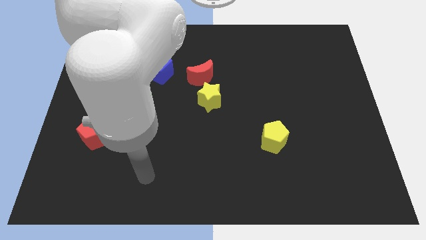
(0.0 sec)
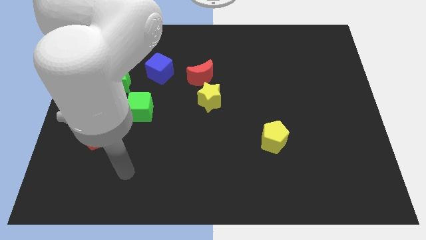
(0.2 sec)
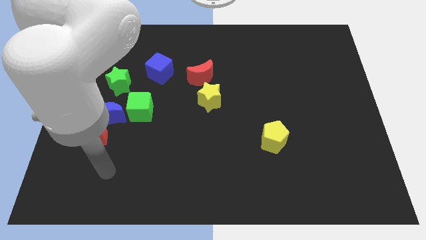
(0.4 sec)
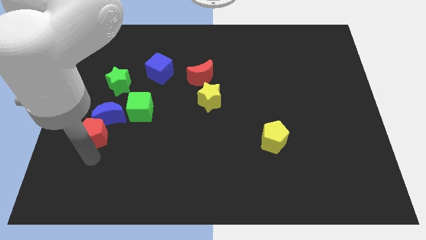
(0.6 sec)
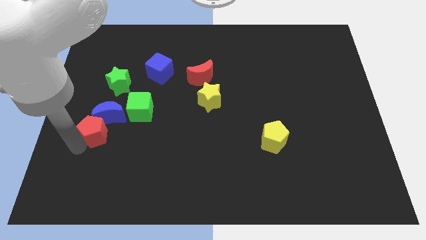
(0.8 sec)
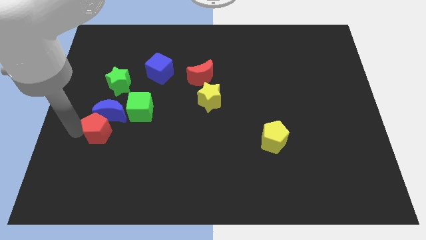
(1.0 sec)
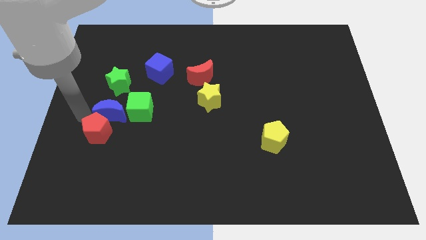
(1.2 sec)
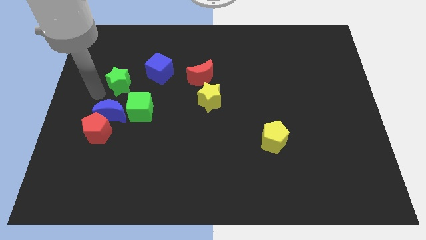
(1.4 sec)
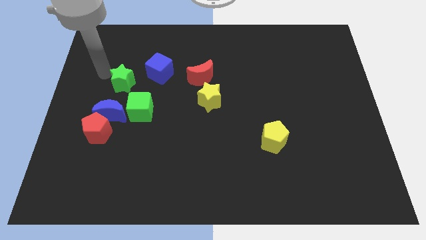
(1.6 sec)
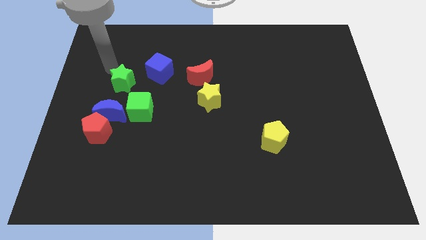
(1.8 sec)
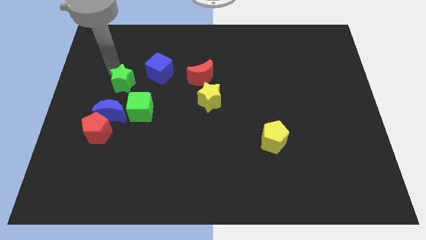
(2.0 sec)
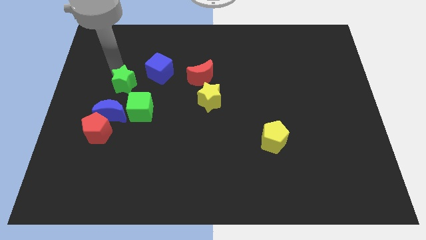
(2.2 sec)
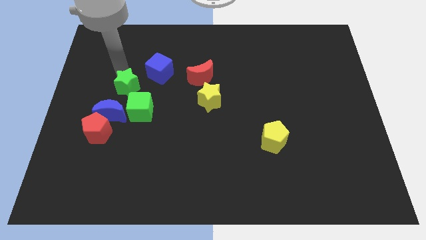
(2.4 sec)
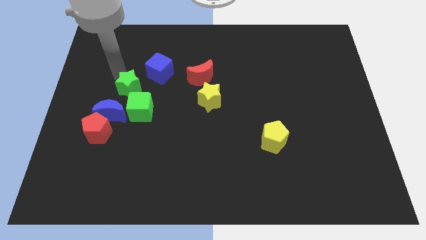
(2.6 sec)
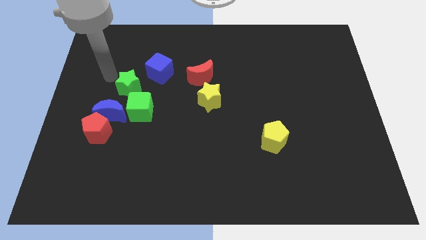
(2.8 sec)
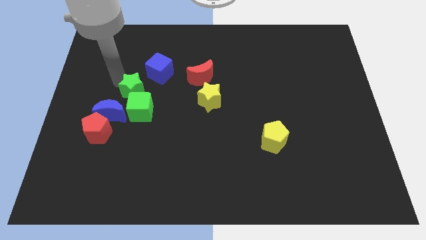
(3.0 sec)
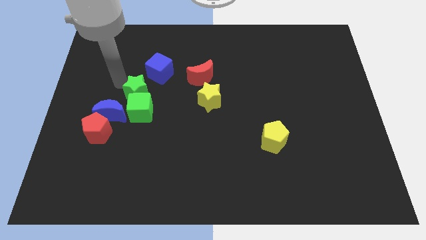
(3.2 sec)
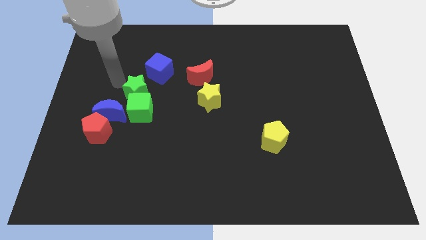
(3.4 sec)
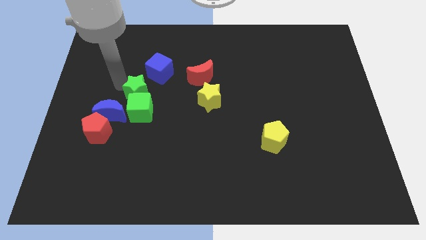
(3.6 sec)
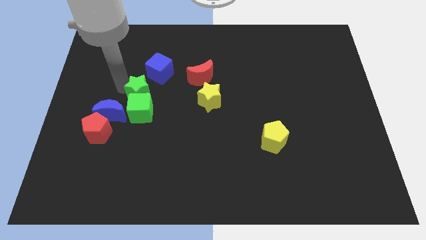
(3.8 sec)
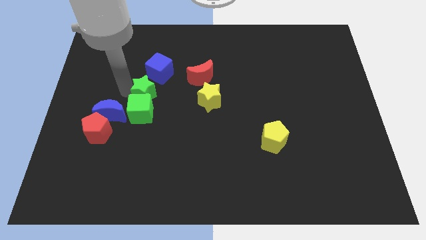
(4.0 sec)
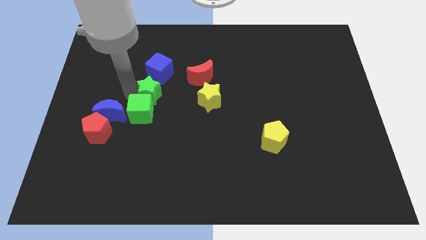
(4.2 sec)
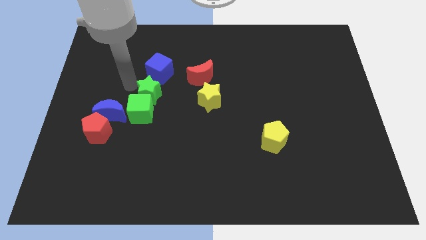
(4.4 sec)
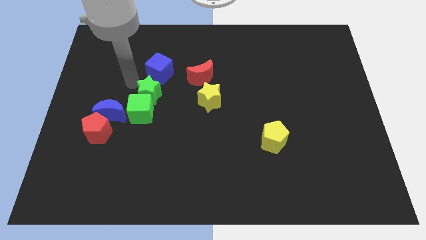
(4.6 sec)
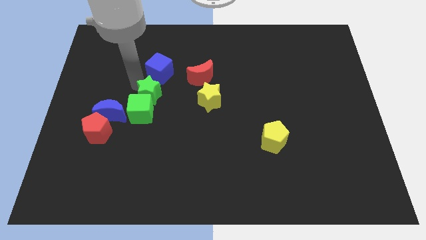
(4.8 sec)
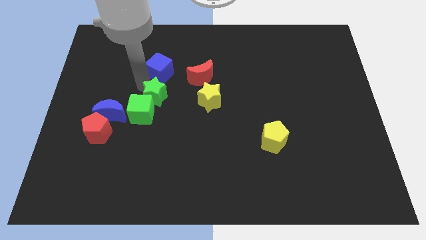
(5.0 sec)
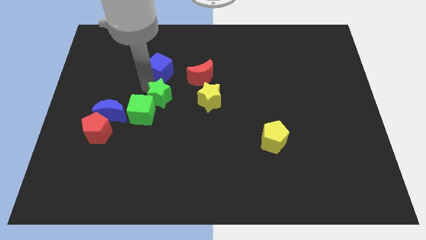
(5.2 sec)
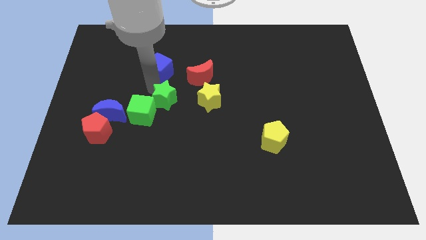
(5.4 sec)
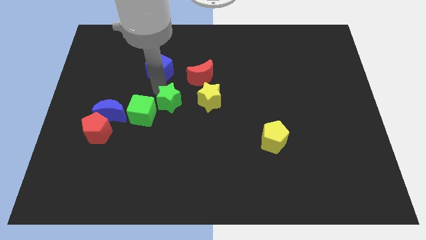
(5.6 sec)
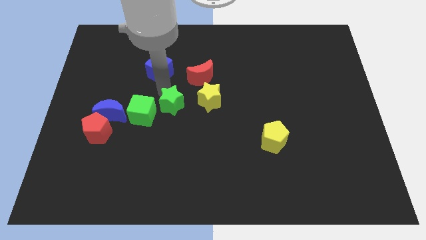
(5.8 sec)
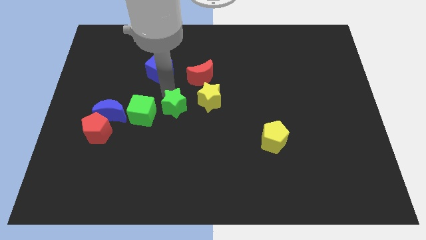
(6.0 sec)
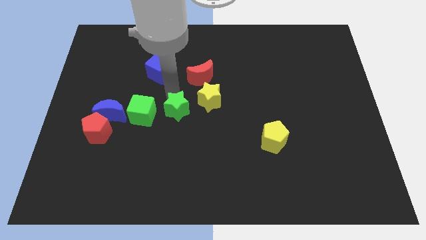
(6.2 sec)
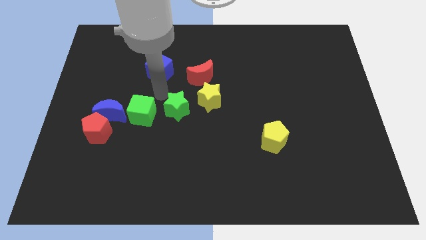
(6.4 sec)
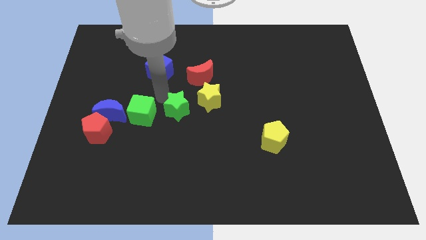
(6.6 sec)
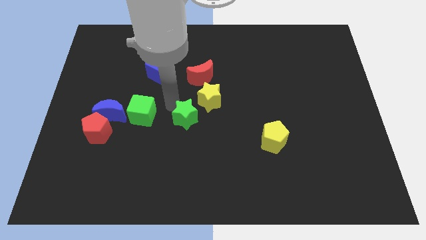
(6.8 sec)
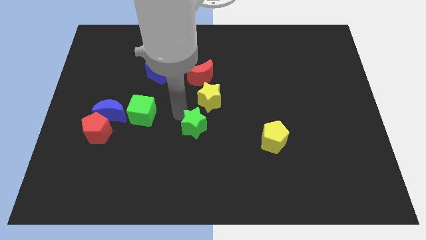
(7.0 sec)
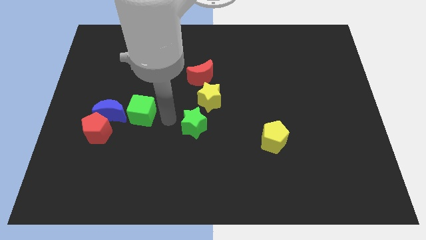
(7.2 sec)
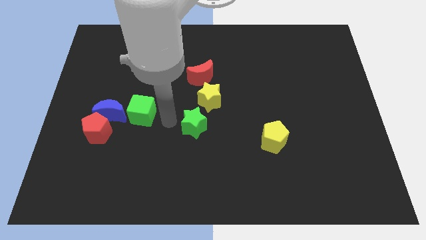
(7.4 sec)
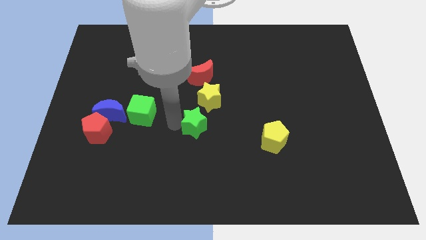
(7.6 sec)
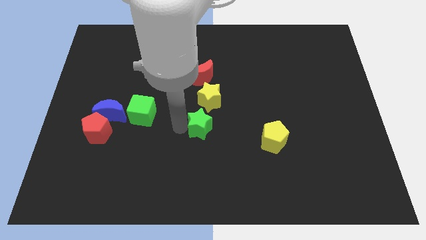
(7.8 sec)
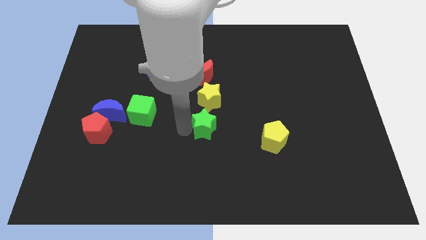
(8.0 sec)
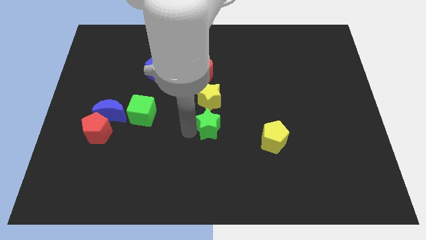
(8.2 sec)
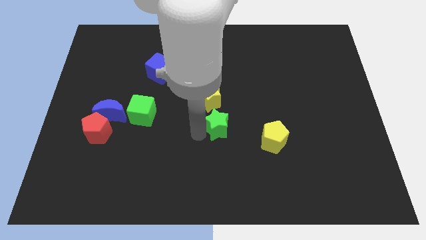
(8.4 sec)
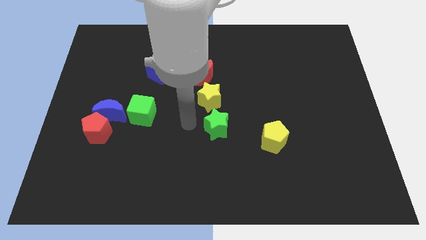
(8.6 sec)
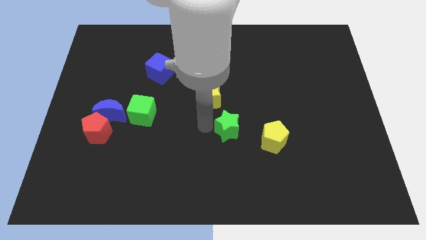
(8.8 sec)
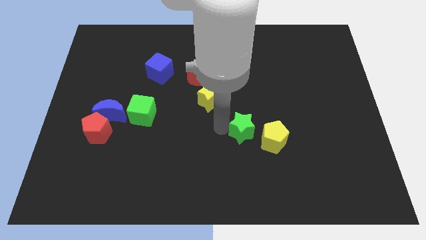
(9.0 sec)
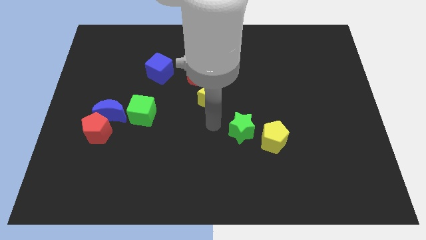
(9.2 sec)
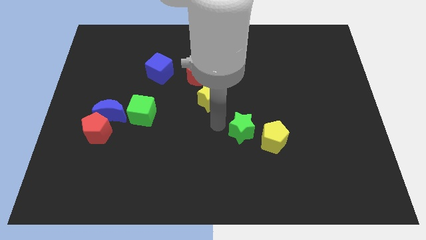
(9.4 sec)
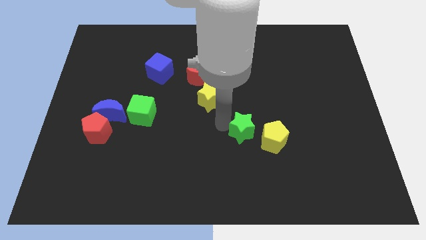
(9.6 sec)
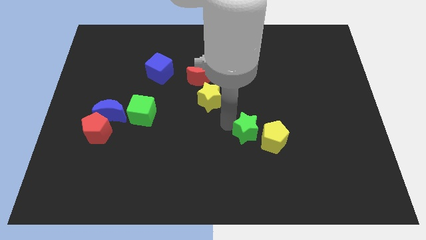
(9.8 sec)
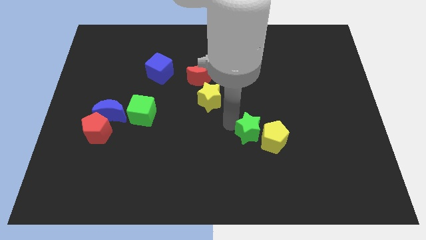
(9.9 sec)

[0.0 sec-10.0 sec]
put the green star close to the yellow pentagon

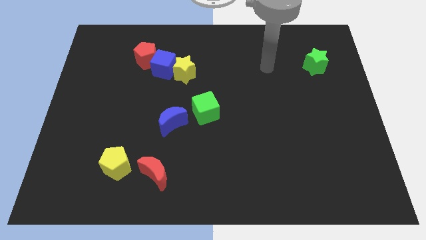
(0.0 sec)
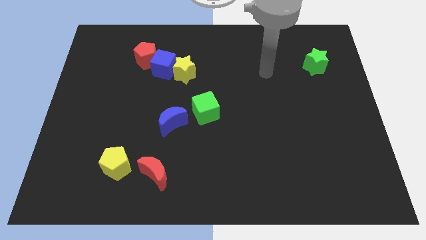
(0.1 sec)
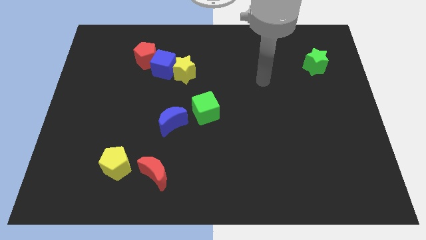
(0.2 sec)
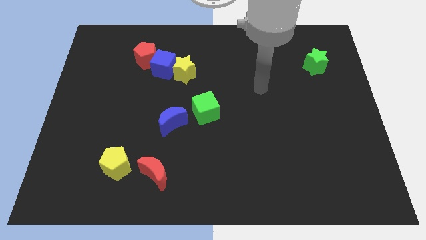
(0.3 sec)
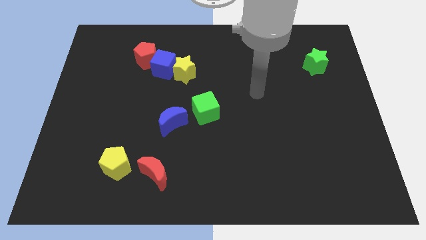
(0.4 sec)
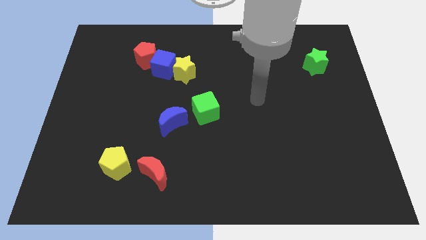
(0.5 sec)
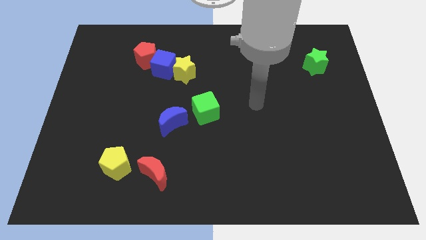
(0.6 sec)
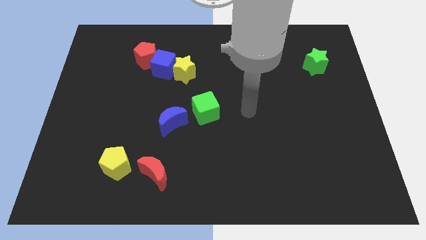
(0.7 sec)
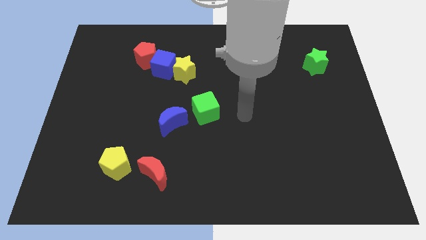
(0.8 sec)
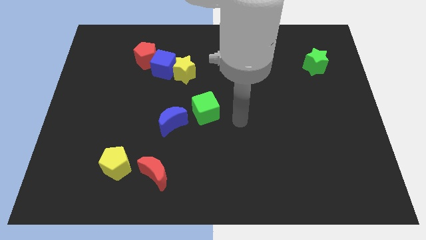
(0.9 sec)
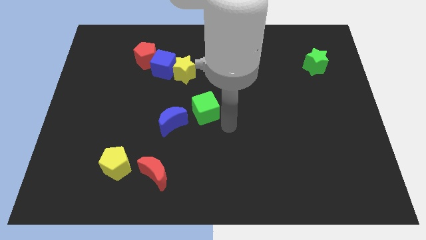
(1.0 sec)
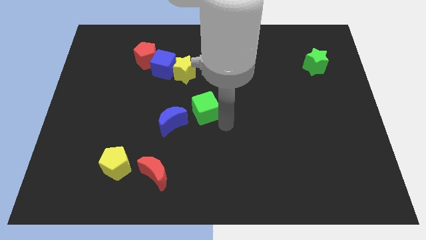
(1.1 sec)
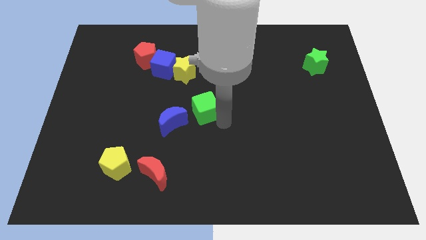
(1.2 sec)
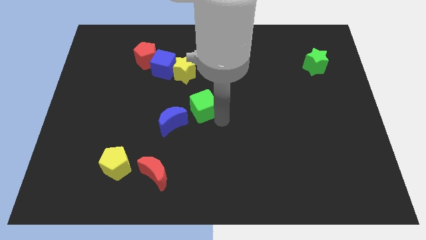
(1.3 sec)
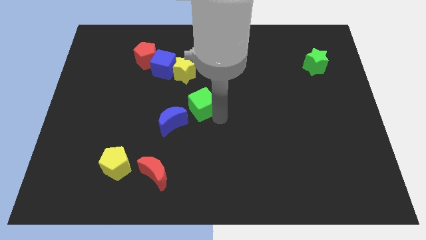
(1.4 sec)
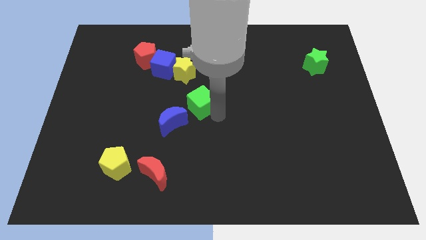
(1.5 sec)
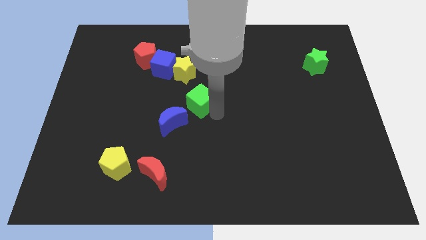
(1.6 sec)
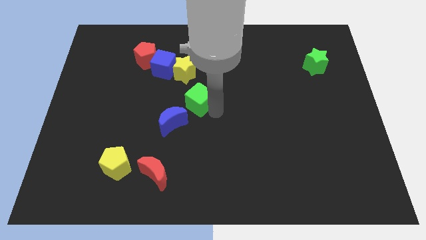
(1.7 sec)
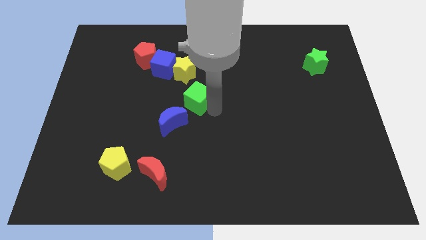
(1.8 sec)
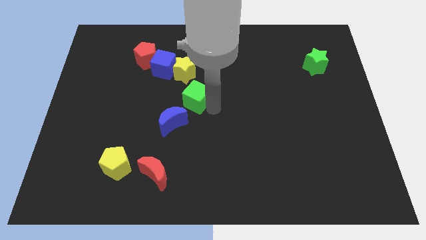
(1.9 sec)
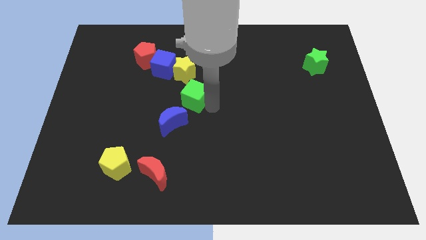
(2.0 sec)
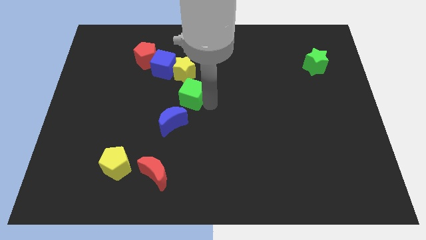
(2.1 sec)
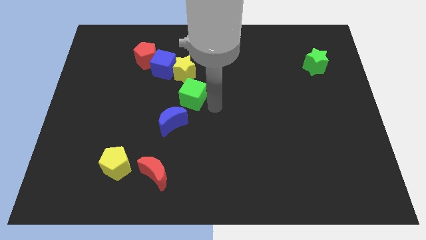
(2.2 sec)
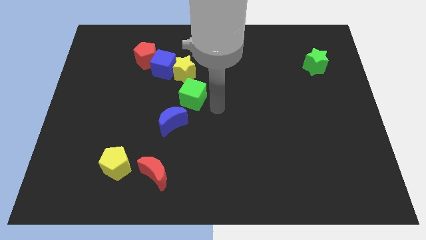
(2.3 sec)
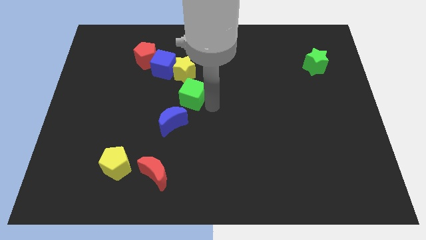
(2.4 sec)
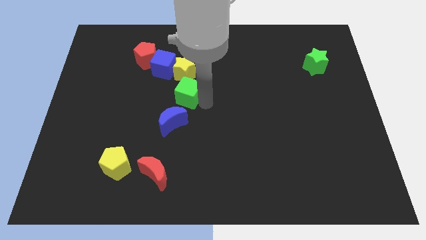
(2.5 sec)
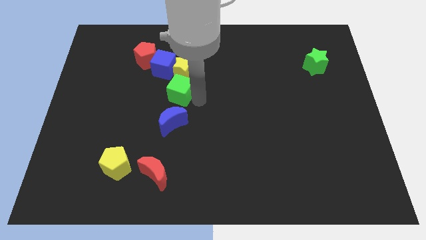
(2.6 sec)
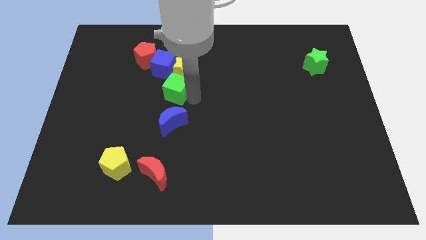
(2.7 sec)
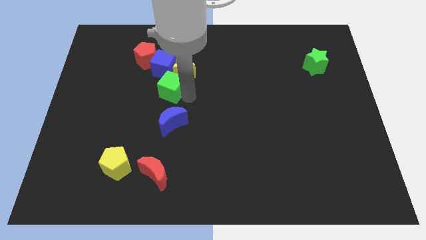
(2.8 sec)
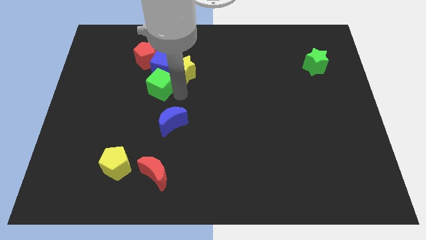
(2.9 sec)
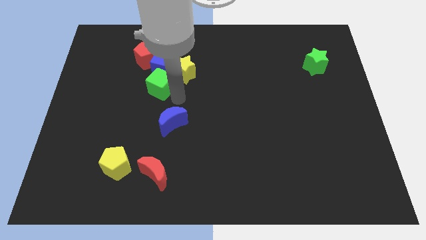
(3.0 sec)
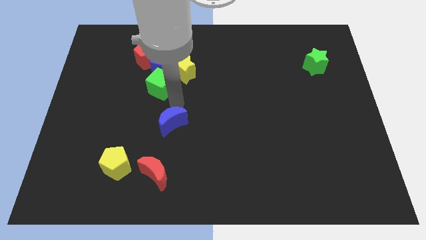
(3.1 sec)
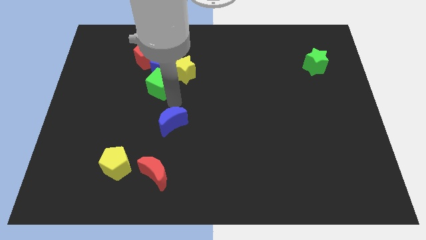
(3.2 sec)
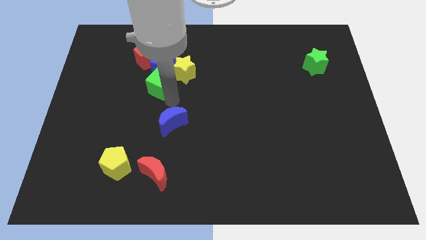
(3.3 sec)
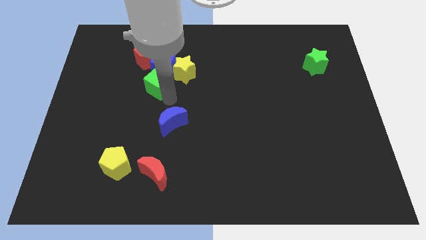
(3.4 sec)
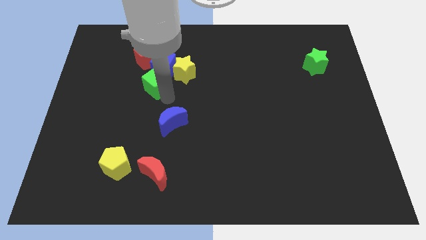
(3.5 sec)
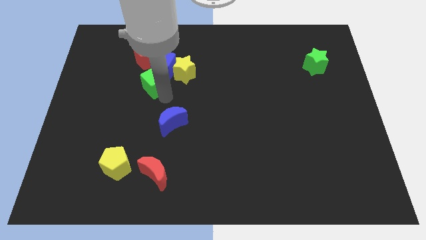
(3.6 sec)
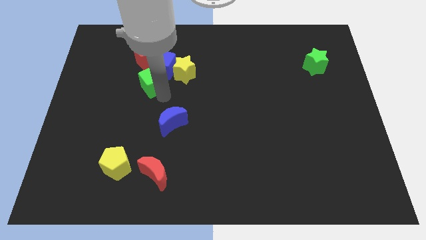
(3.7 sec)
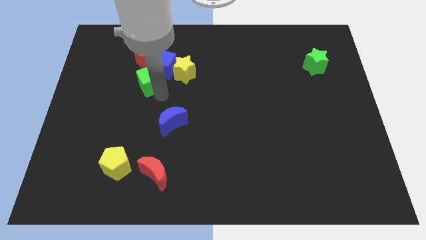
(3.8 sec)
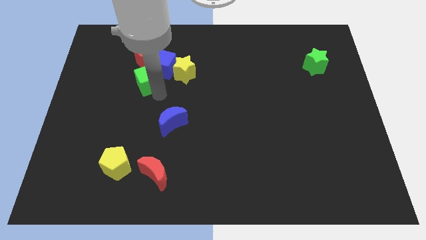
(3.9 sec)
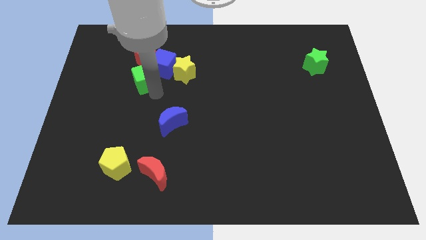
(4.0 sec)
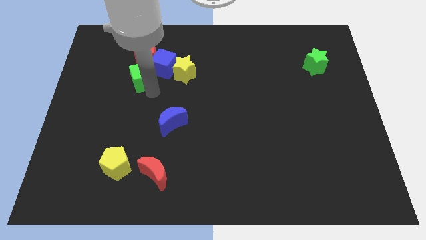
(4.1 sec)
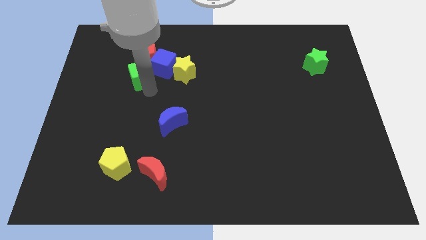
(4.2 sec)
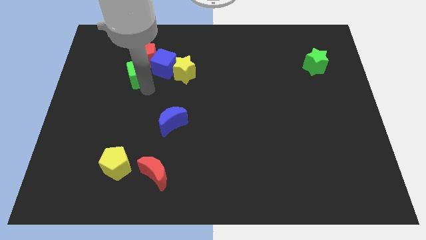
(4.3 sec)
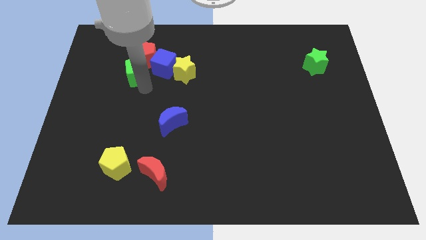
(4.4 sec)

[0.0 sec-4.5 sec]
put the green cube close to the red pentagon
